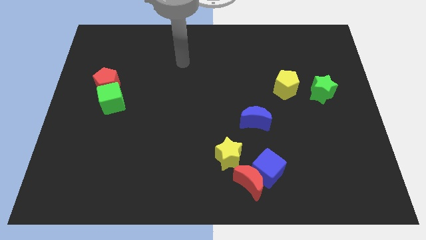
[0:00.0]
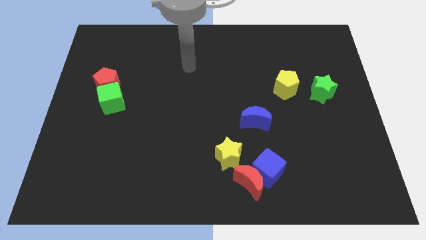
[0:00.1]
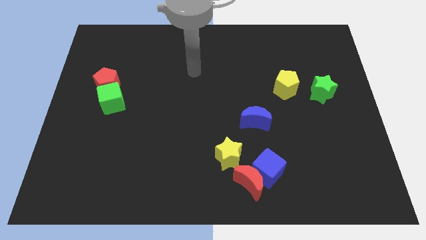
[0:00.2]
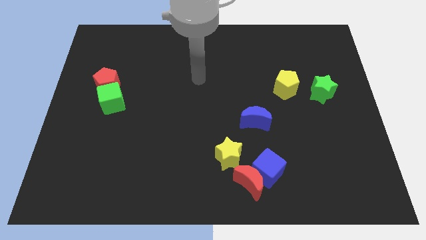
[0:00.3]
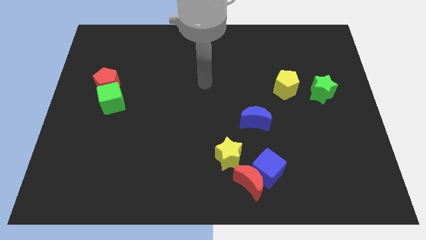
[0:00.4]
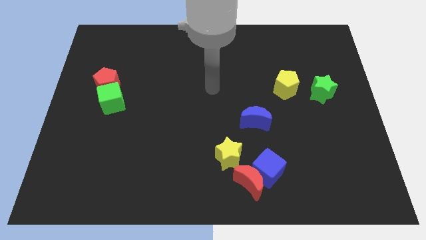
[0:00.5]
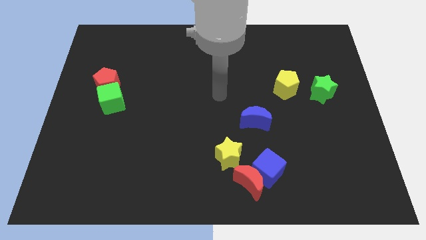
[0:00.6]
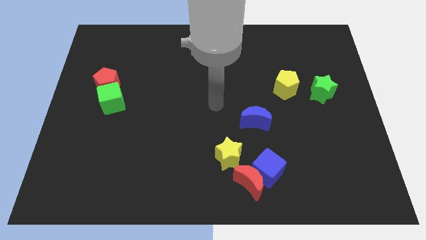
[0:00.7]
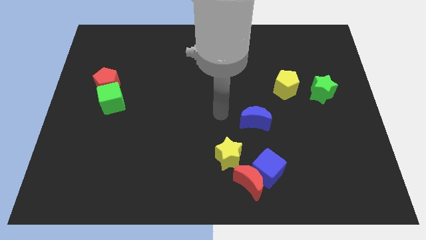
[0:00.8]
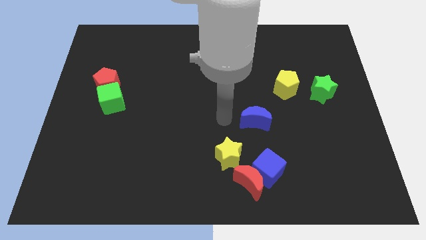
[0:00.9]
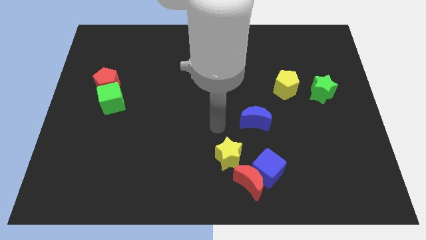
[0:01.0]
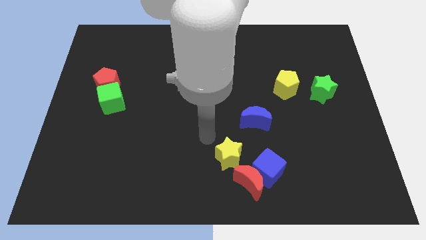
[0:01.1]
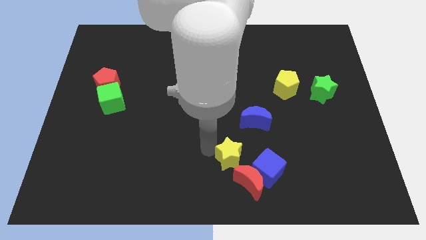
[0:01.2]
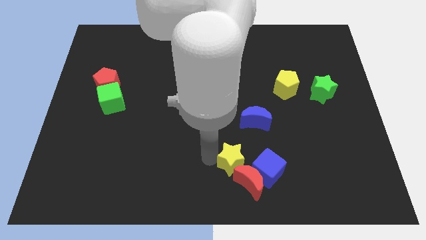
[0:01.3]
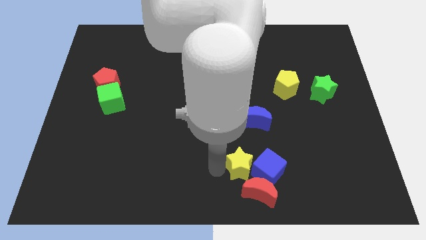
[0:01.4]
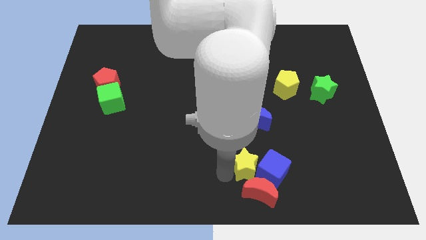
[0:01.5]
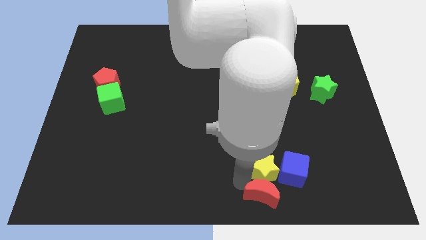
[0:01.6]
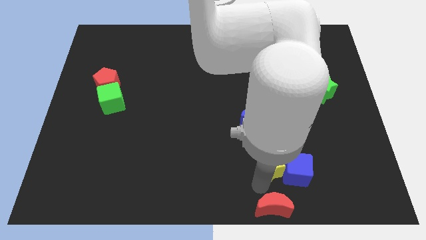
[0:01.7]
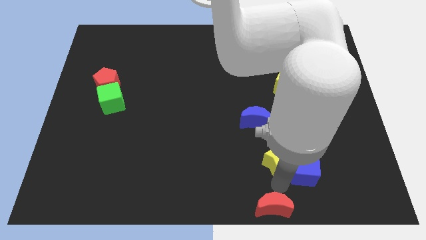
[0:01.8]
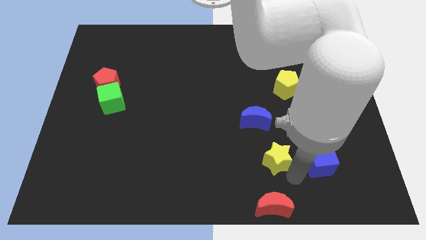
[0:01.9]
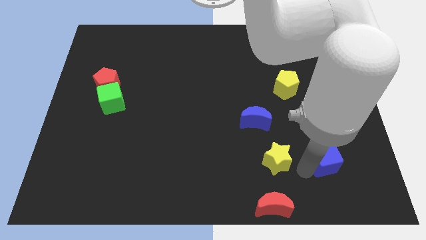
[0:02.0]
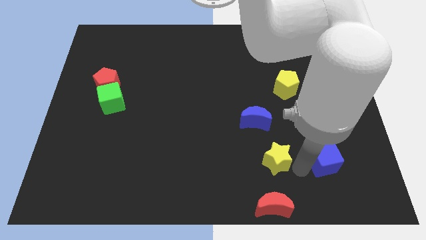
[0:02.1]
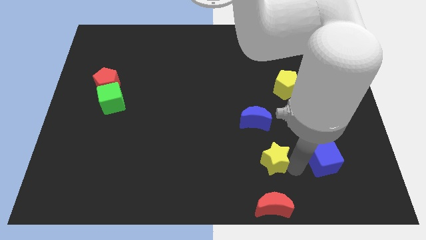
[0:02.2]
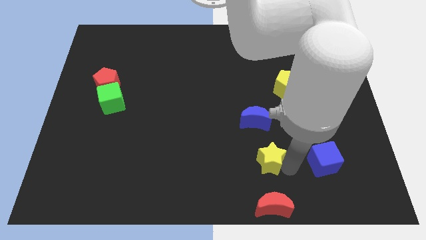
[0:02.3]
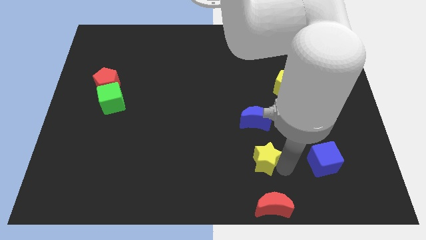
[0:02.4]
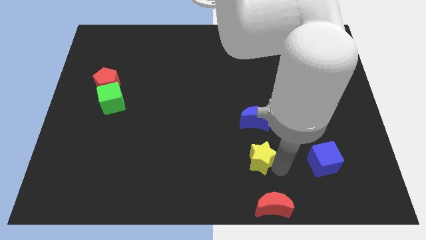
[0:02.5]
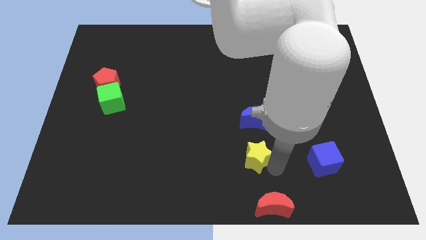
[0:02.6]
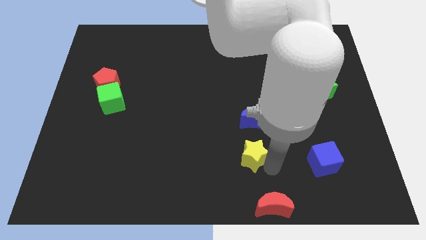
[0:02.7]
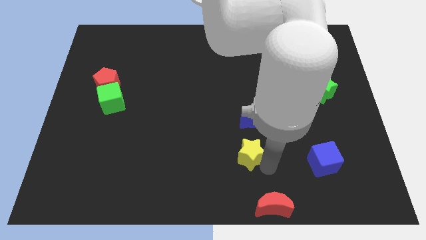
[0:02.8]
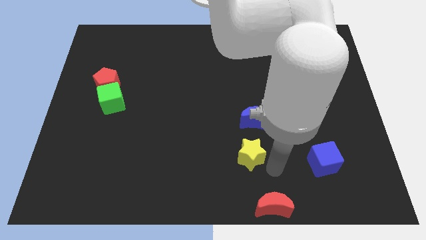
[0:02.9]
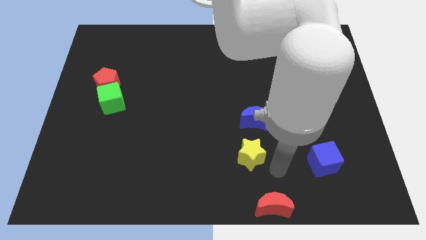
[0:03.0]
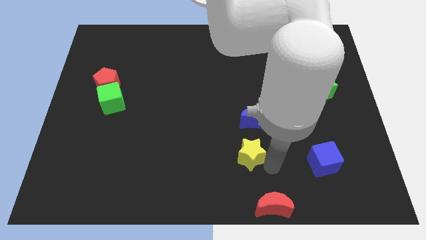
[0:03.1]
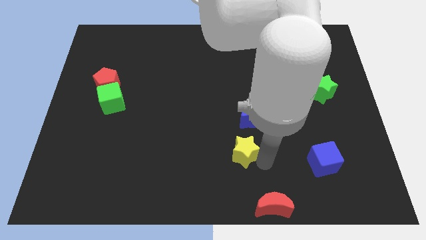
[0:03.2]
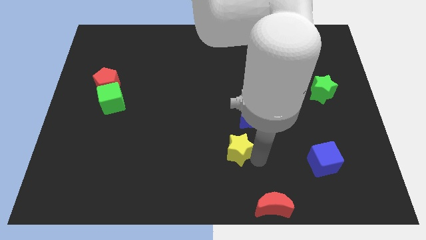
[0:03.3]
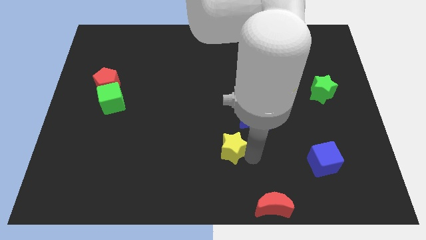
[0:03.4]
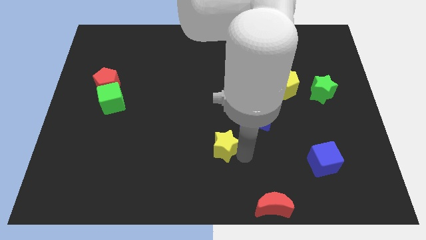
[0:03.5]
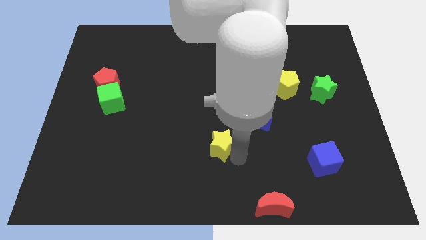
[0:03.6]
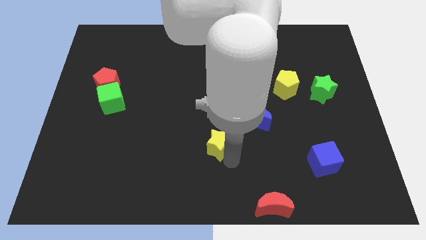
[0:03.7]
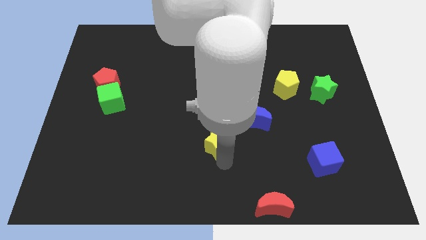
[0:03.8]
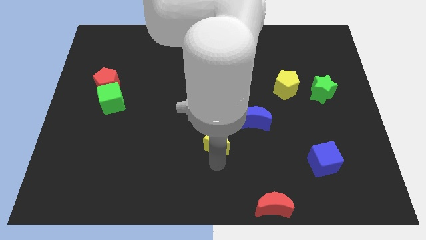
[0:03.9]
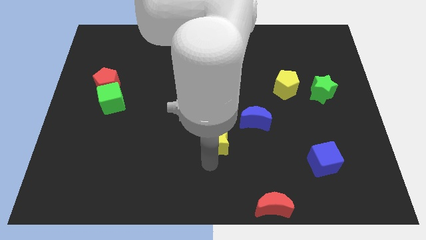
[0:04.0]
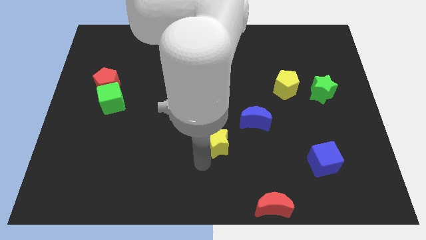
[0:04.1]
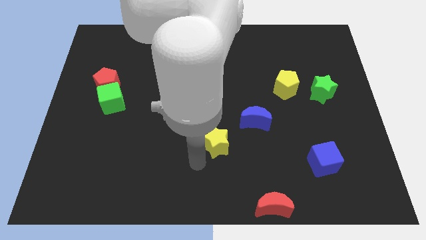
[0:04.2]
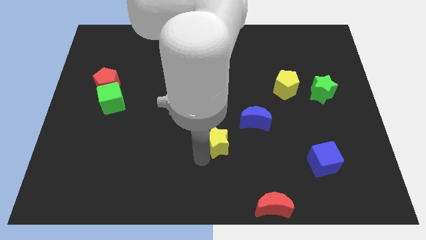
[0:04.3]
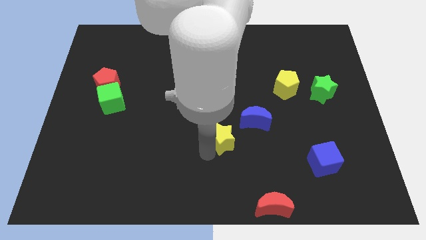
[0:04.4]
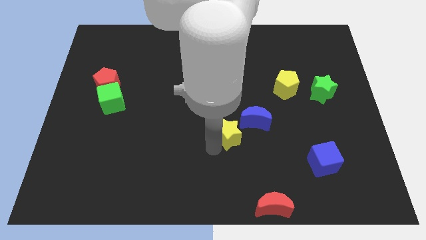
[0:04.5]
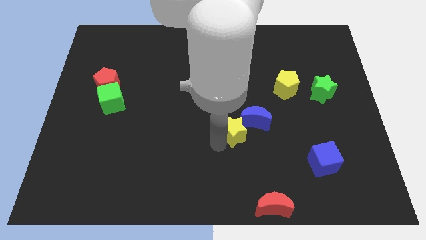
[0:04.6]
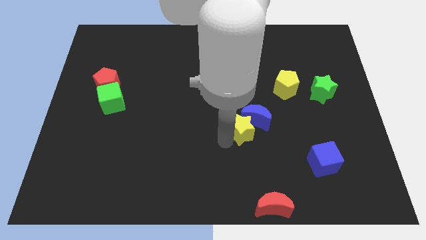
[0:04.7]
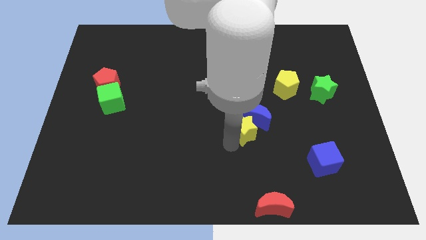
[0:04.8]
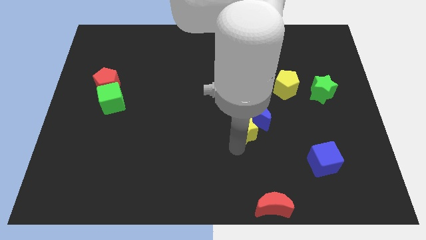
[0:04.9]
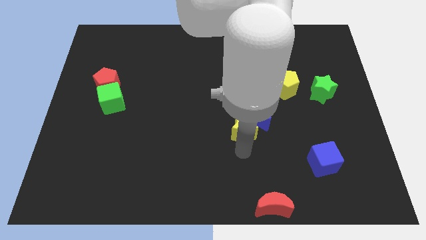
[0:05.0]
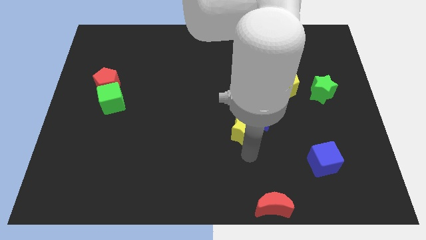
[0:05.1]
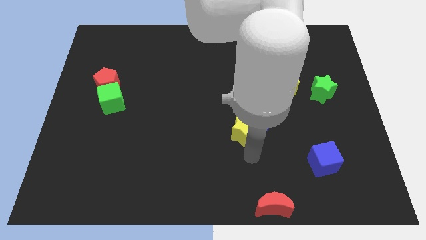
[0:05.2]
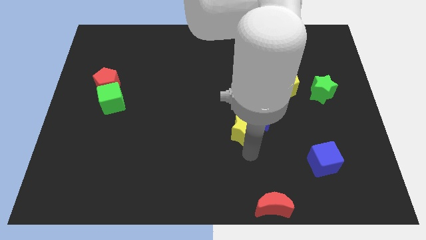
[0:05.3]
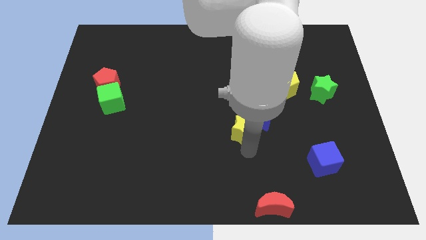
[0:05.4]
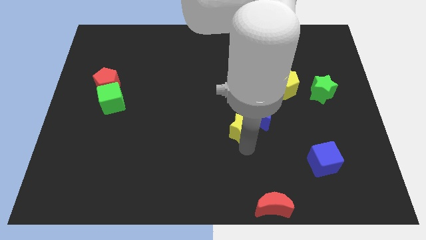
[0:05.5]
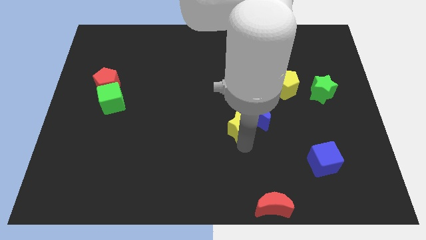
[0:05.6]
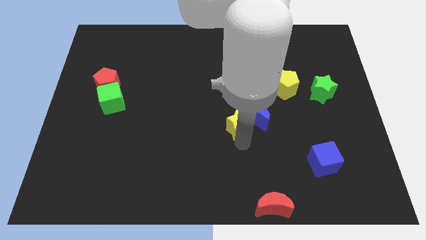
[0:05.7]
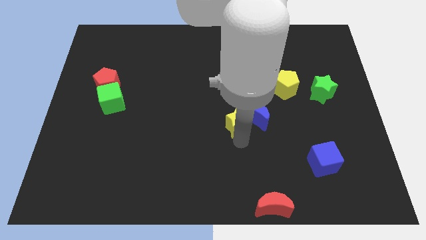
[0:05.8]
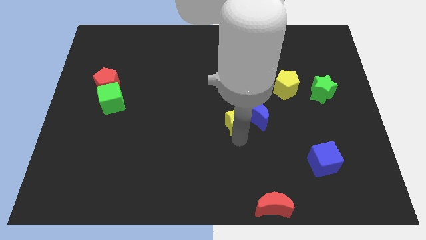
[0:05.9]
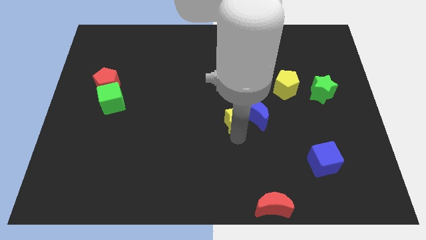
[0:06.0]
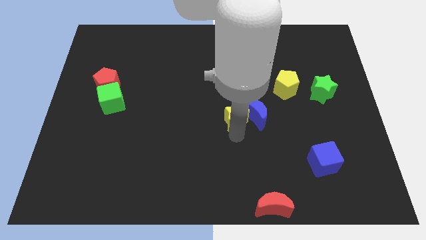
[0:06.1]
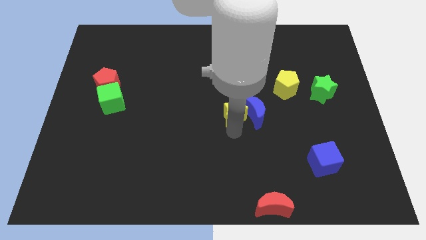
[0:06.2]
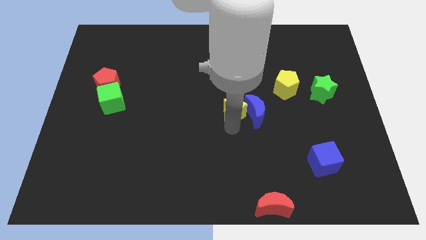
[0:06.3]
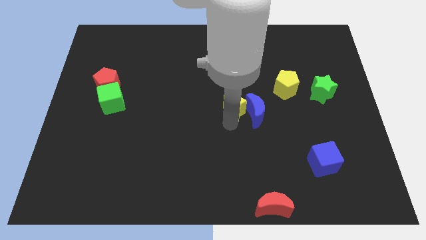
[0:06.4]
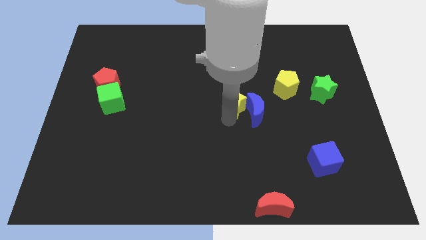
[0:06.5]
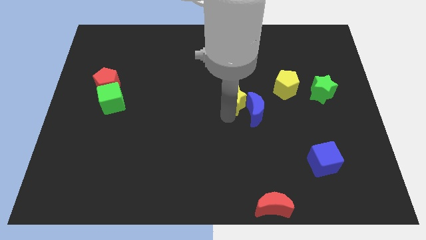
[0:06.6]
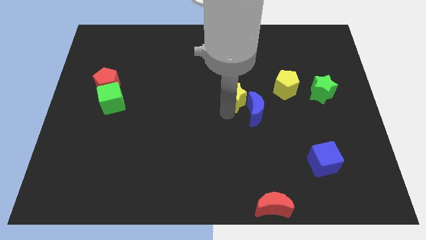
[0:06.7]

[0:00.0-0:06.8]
slide the yellow star above the blue moon

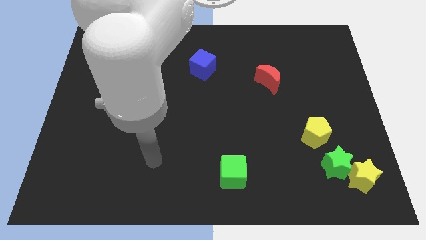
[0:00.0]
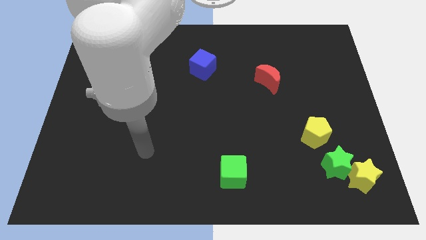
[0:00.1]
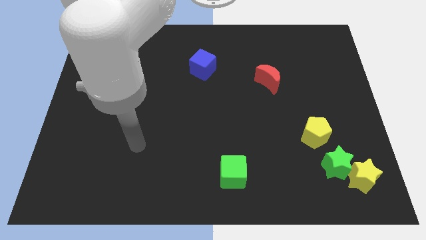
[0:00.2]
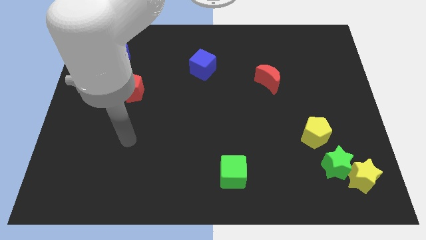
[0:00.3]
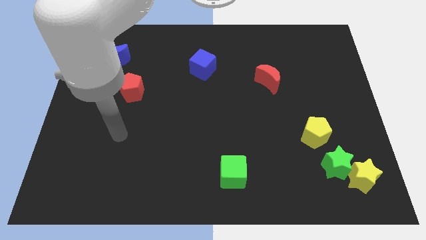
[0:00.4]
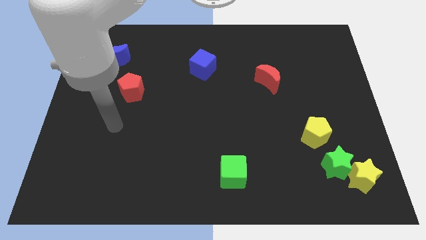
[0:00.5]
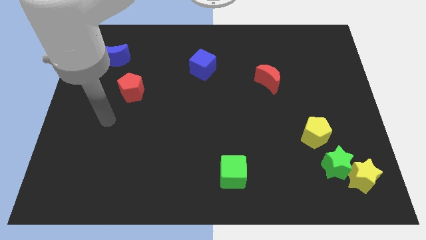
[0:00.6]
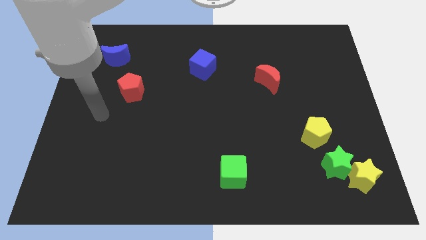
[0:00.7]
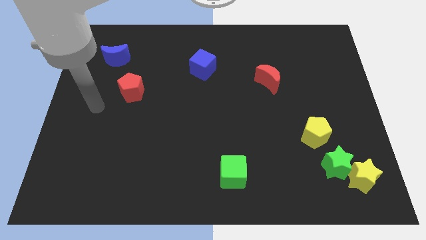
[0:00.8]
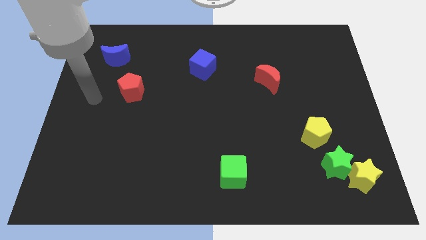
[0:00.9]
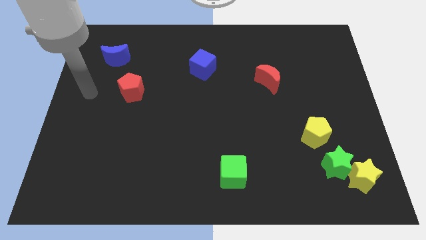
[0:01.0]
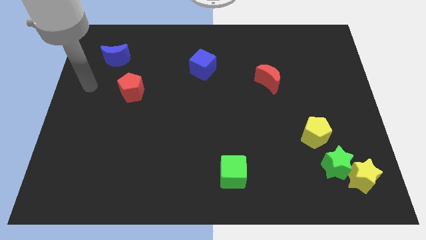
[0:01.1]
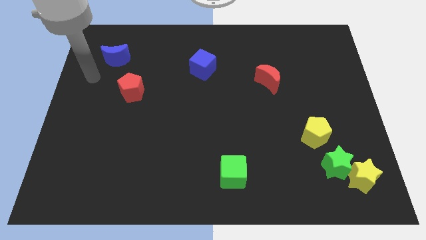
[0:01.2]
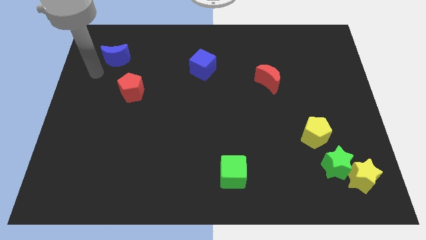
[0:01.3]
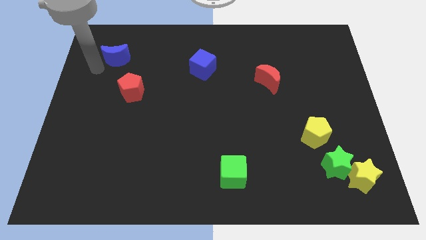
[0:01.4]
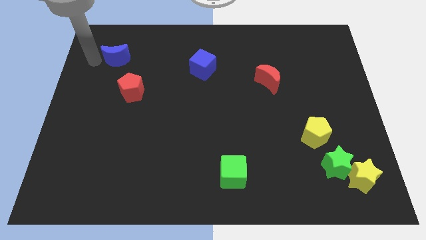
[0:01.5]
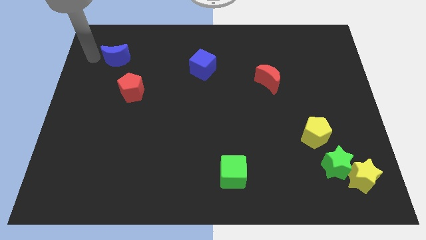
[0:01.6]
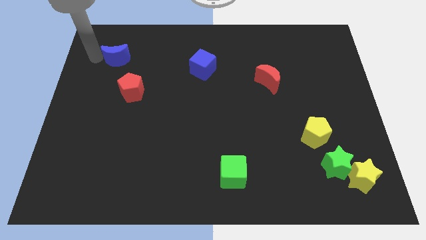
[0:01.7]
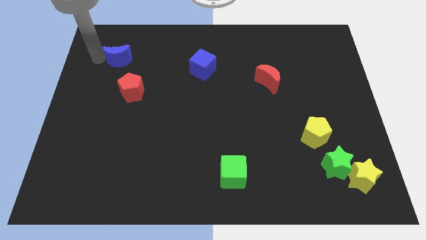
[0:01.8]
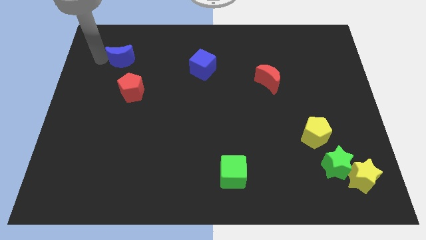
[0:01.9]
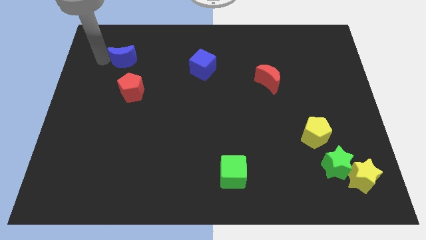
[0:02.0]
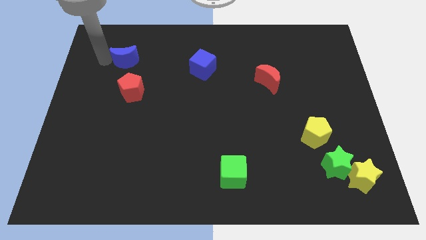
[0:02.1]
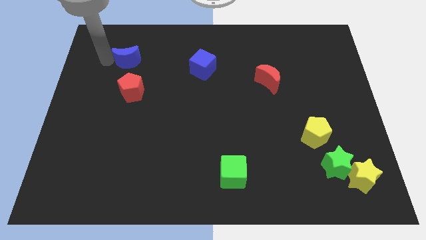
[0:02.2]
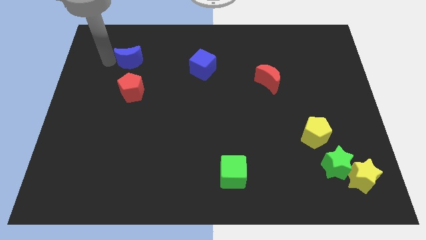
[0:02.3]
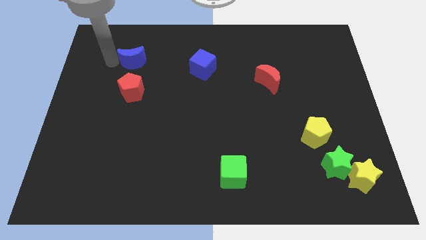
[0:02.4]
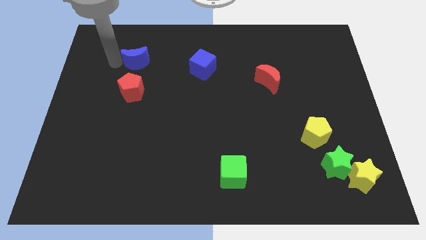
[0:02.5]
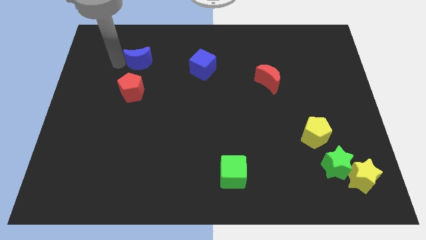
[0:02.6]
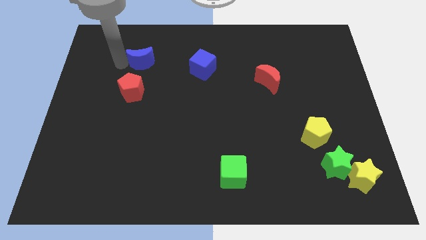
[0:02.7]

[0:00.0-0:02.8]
move the blue moon to the left of the blue cube
